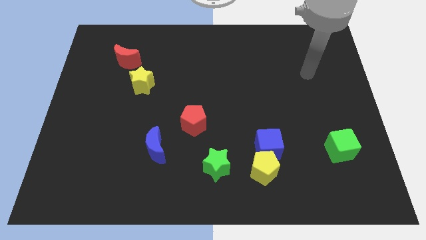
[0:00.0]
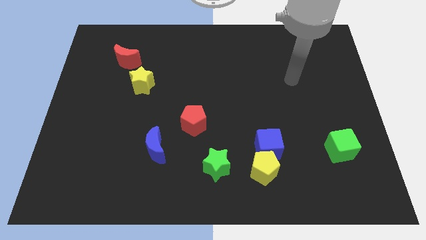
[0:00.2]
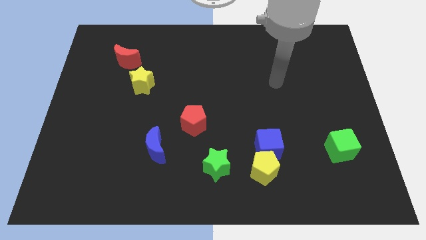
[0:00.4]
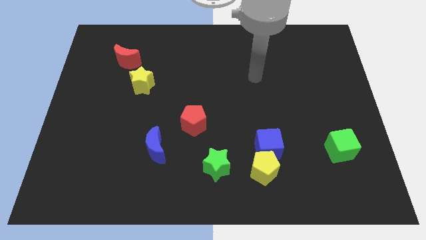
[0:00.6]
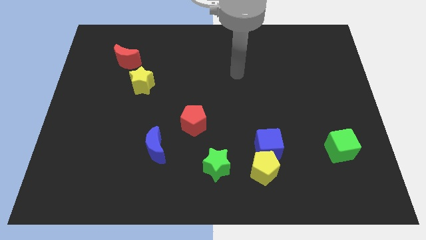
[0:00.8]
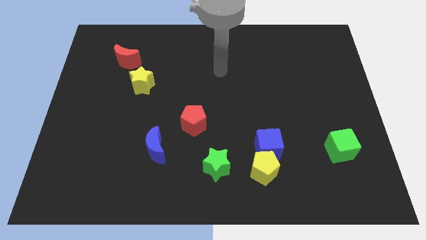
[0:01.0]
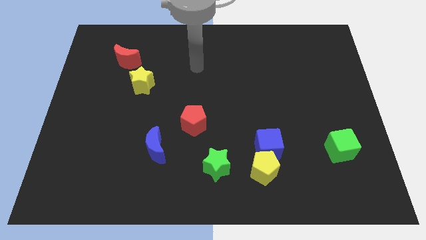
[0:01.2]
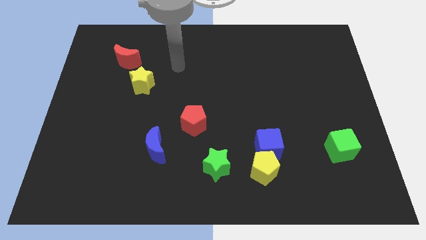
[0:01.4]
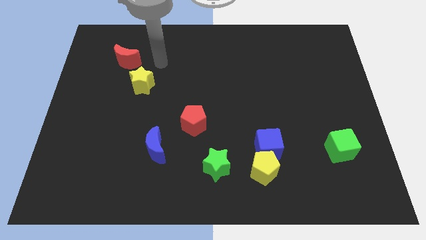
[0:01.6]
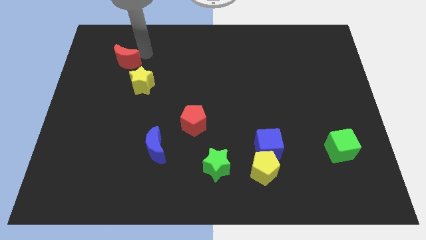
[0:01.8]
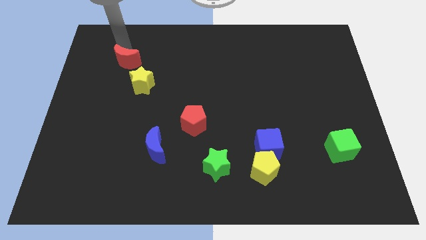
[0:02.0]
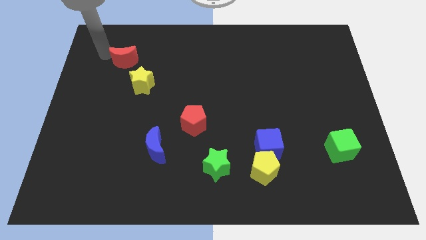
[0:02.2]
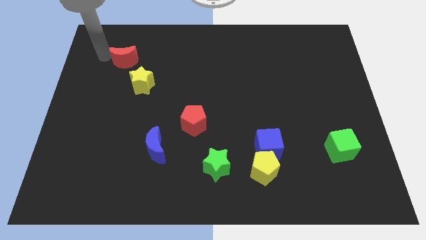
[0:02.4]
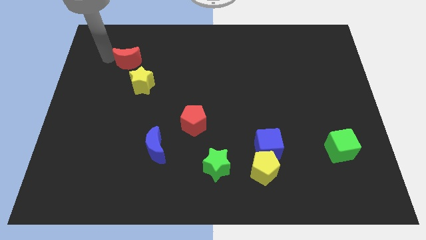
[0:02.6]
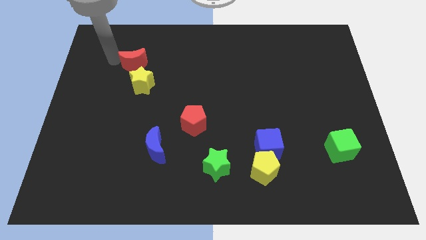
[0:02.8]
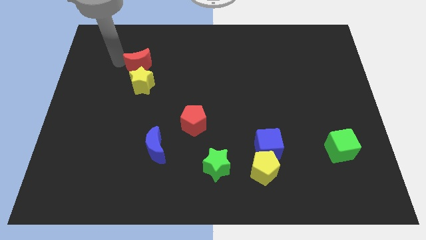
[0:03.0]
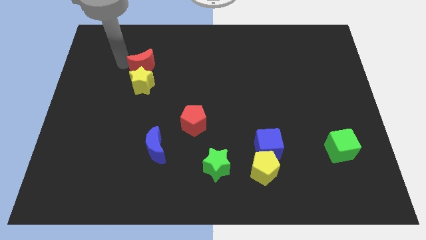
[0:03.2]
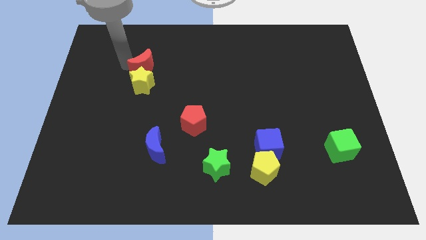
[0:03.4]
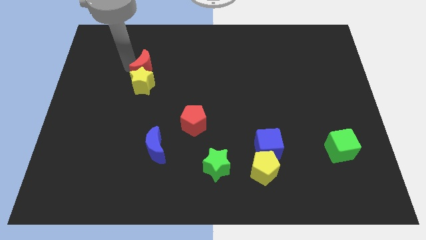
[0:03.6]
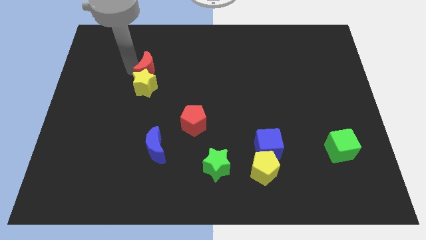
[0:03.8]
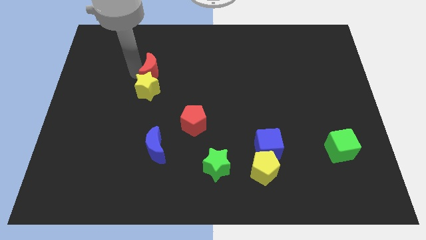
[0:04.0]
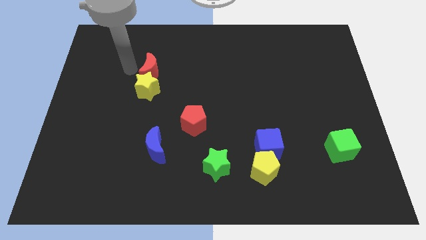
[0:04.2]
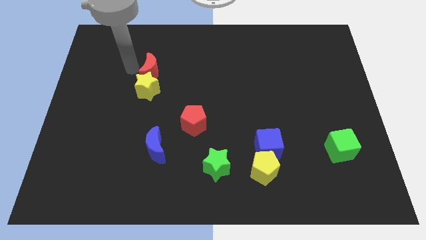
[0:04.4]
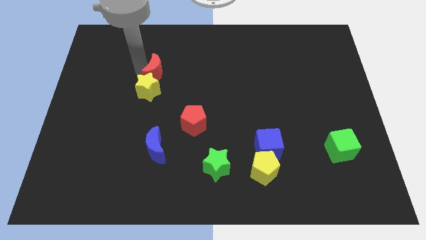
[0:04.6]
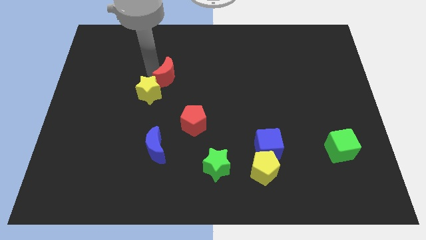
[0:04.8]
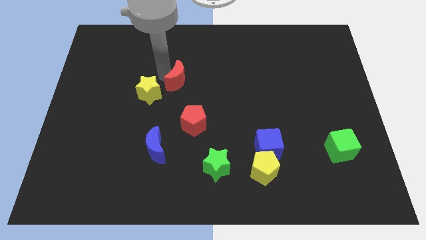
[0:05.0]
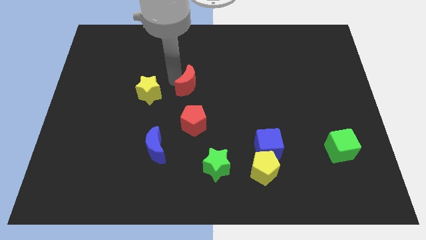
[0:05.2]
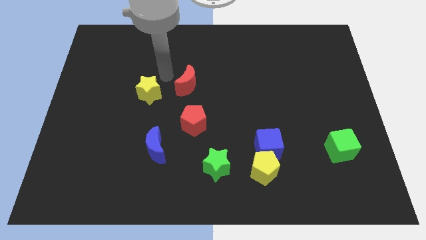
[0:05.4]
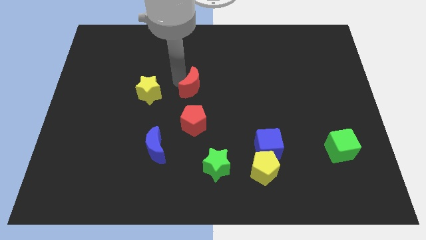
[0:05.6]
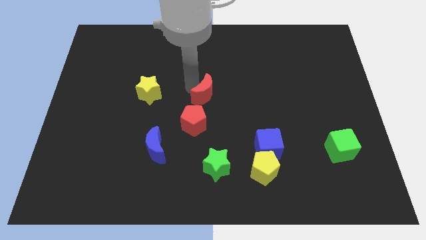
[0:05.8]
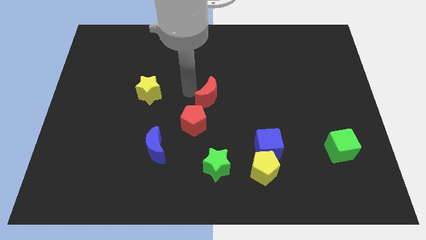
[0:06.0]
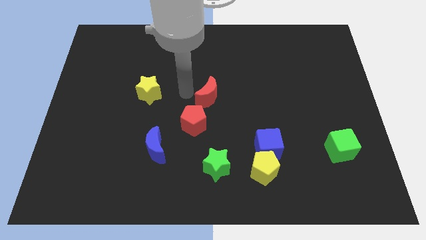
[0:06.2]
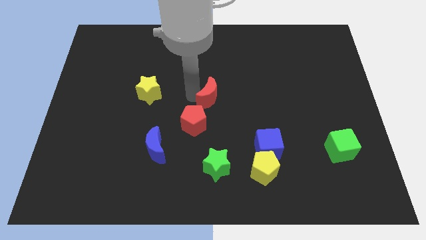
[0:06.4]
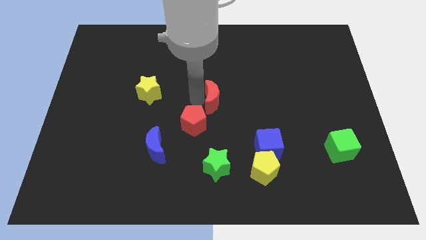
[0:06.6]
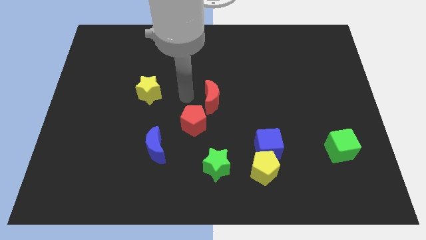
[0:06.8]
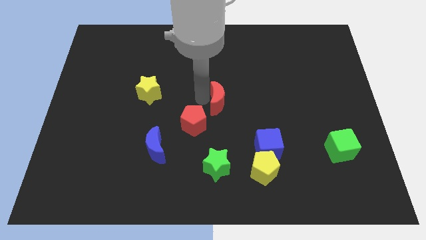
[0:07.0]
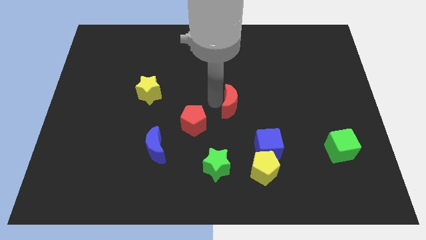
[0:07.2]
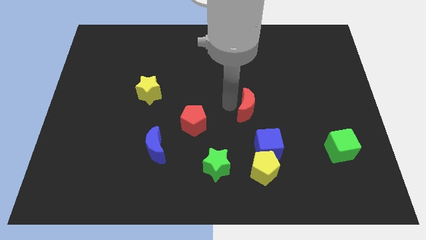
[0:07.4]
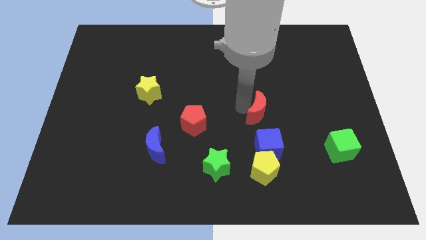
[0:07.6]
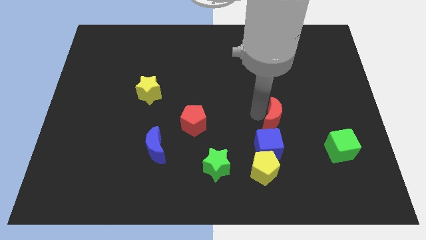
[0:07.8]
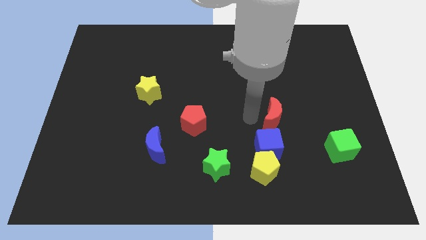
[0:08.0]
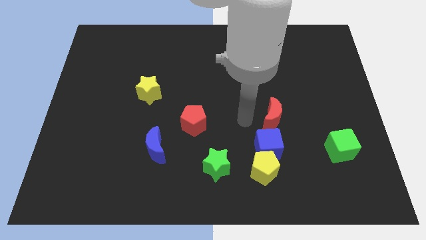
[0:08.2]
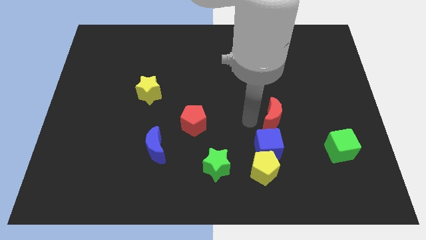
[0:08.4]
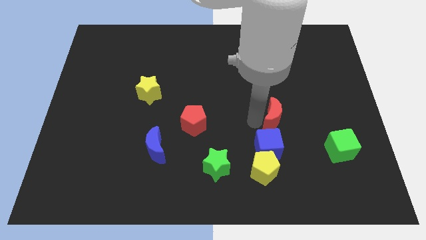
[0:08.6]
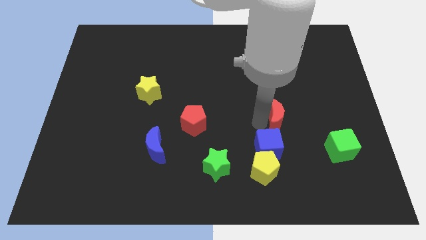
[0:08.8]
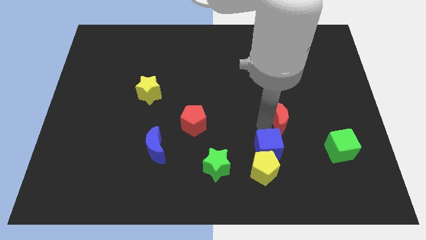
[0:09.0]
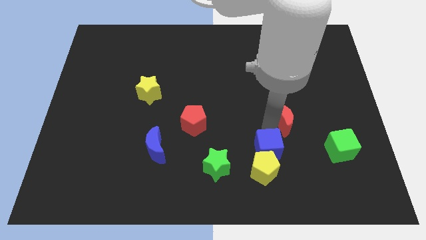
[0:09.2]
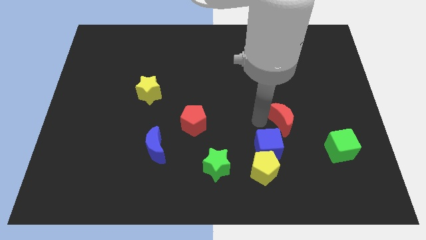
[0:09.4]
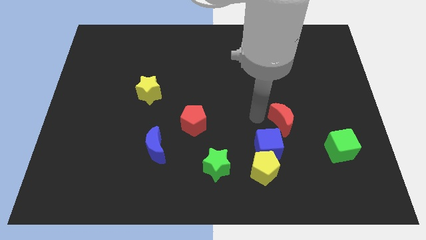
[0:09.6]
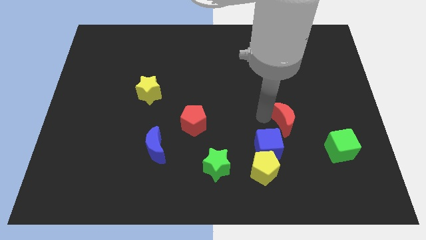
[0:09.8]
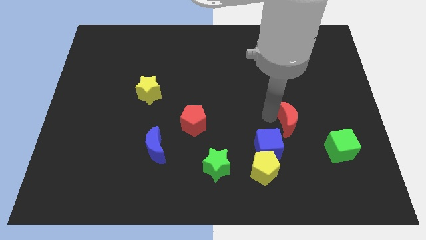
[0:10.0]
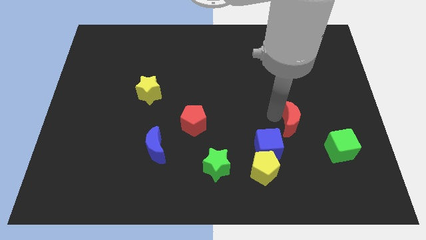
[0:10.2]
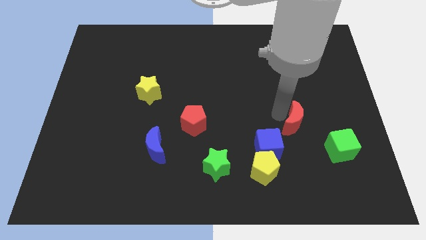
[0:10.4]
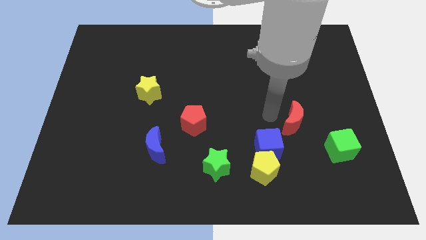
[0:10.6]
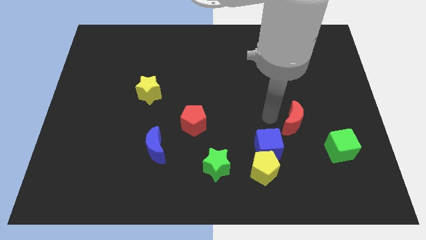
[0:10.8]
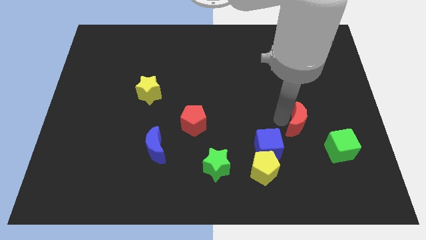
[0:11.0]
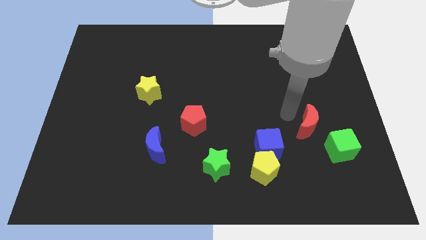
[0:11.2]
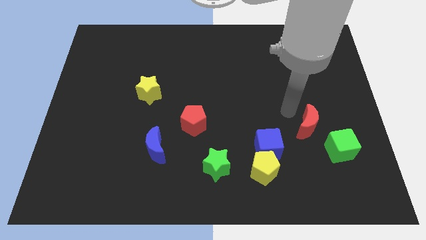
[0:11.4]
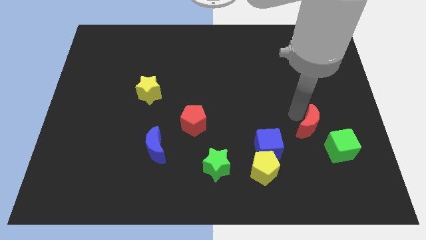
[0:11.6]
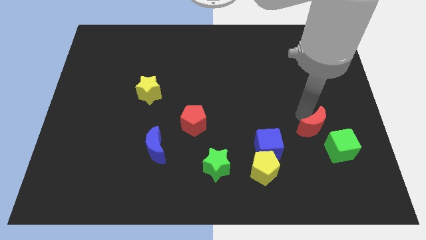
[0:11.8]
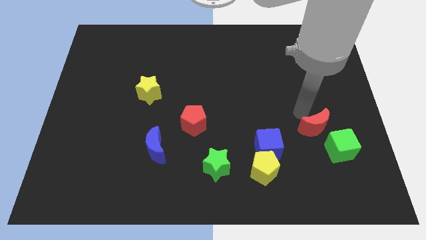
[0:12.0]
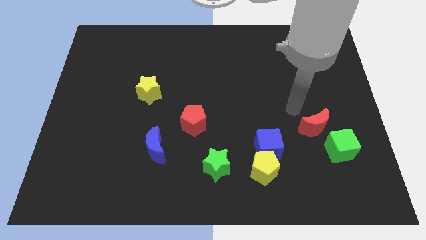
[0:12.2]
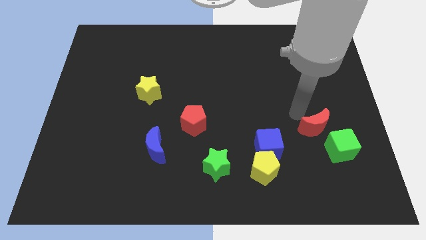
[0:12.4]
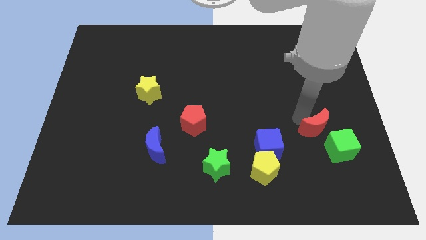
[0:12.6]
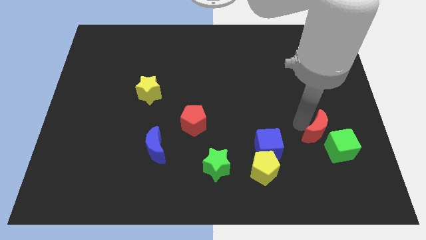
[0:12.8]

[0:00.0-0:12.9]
slide the red moon towards the green cube

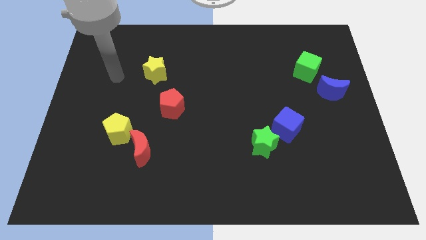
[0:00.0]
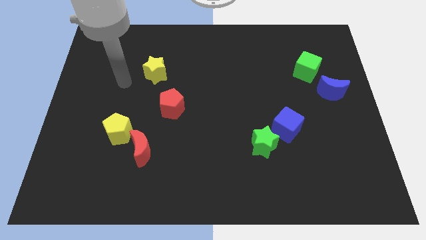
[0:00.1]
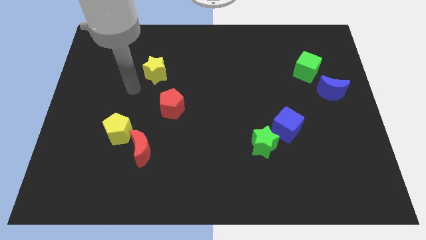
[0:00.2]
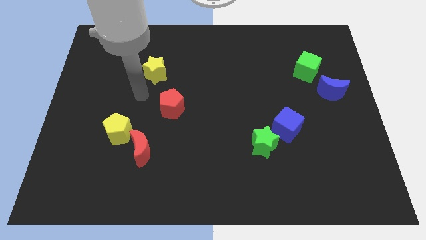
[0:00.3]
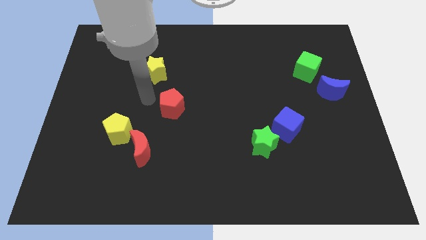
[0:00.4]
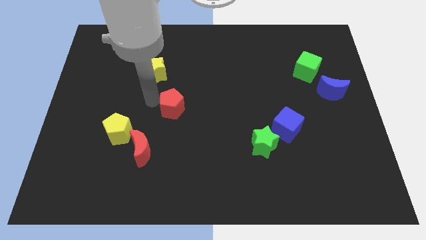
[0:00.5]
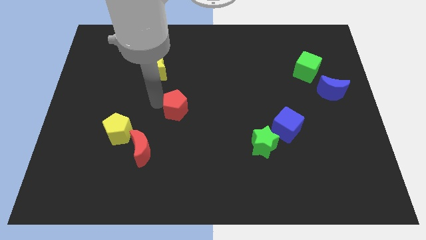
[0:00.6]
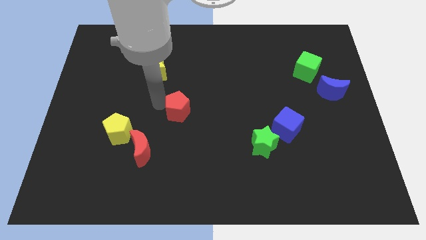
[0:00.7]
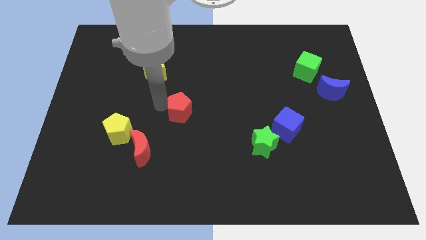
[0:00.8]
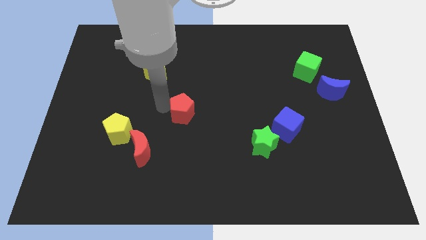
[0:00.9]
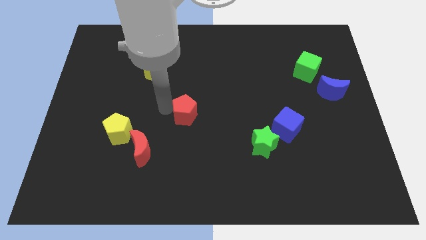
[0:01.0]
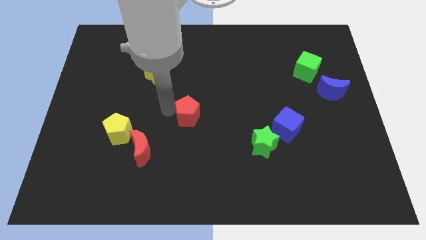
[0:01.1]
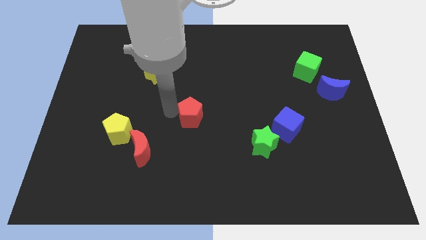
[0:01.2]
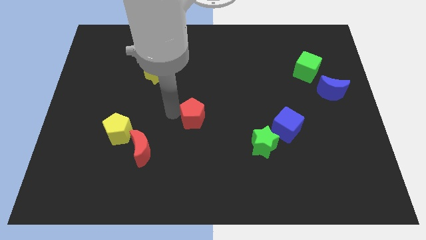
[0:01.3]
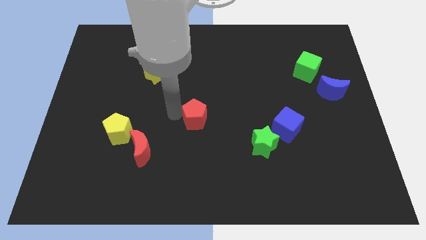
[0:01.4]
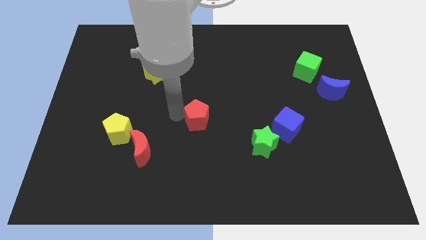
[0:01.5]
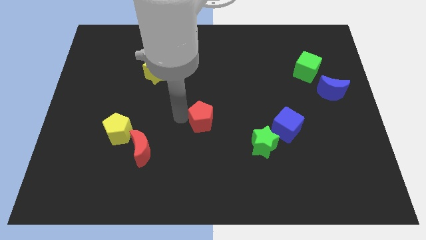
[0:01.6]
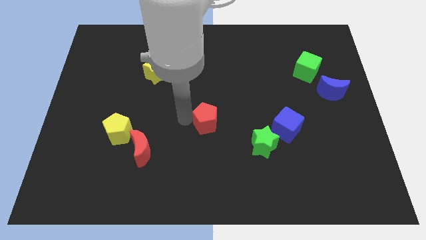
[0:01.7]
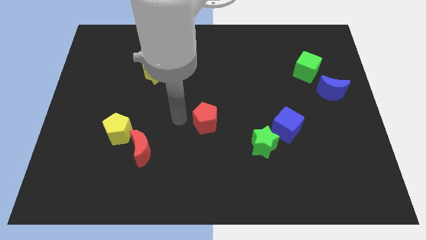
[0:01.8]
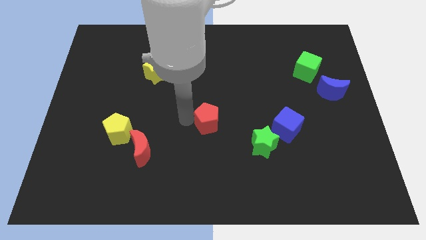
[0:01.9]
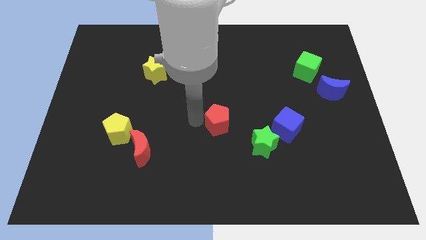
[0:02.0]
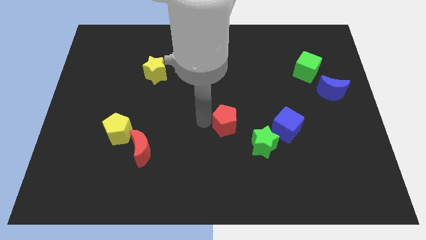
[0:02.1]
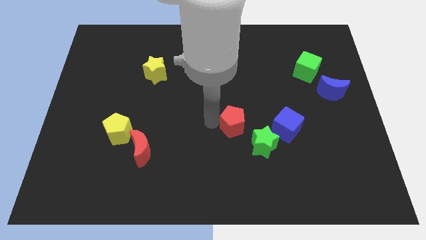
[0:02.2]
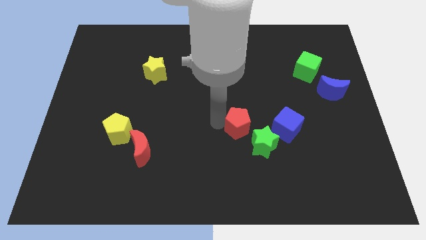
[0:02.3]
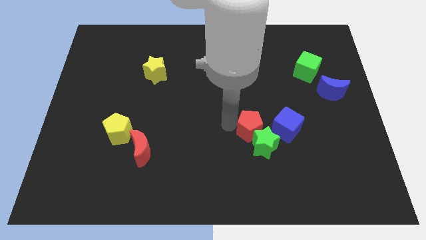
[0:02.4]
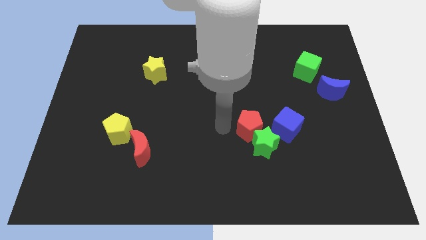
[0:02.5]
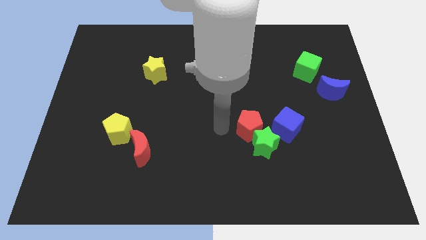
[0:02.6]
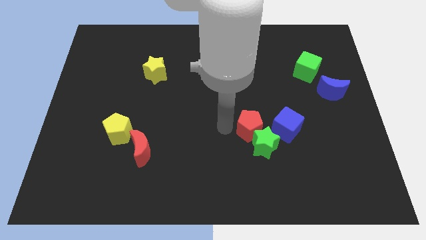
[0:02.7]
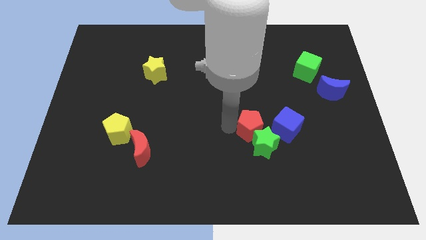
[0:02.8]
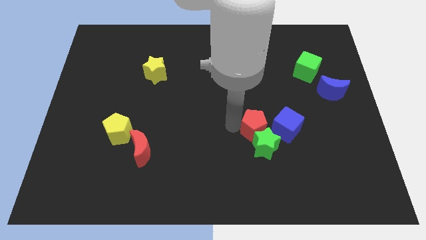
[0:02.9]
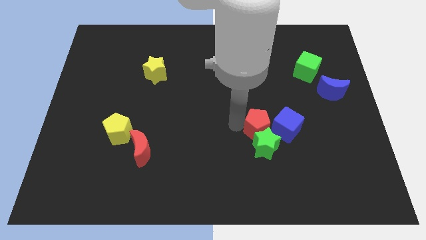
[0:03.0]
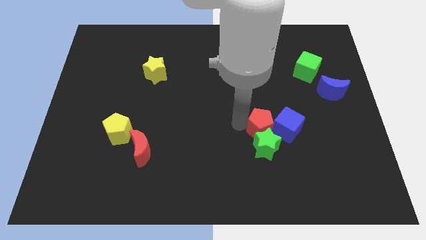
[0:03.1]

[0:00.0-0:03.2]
push the red pentagon to the blue cube
